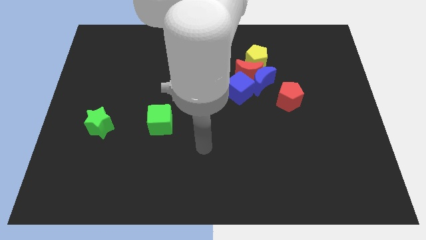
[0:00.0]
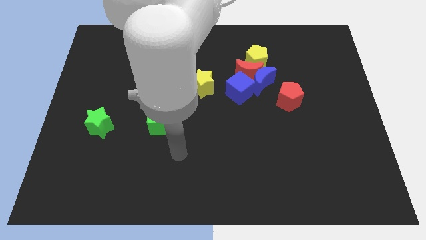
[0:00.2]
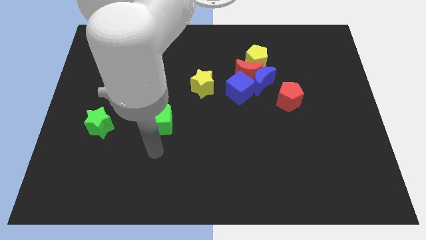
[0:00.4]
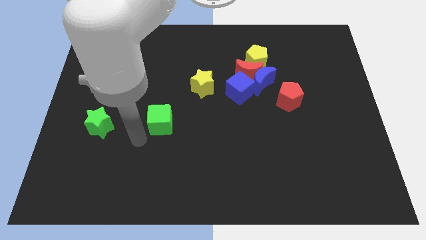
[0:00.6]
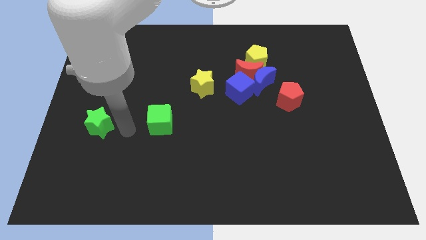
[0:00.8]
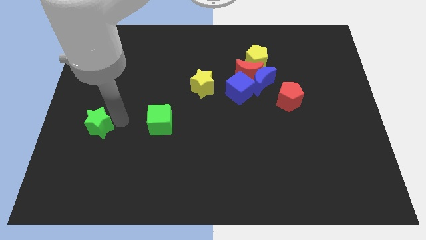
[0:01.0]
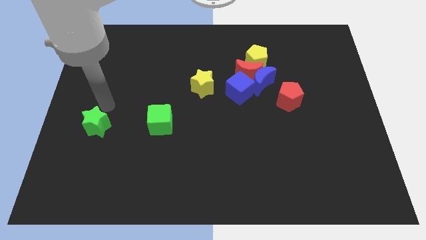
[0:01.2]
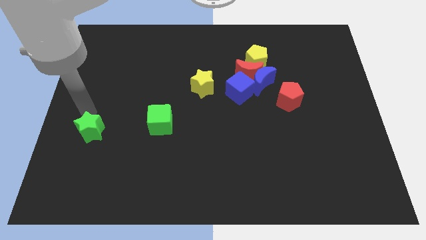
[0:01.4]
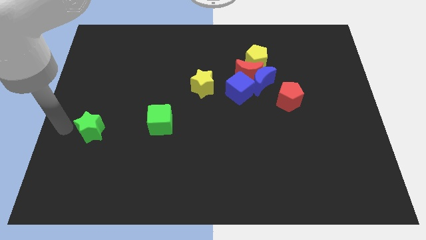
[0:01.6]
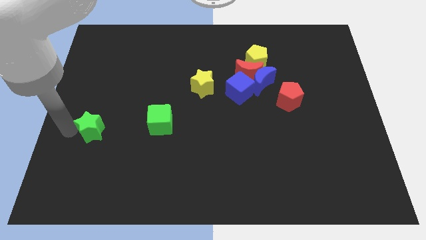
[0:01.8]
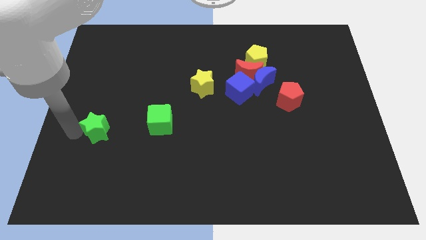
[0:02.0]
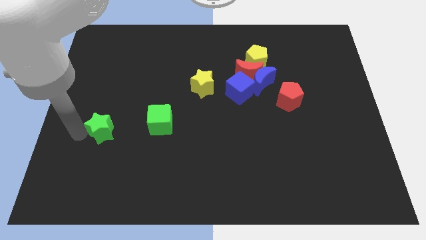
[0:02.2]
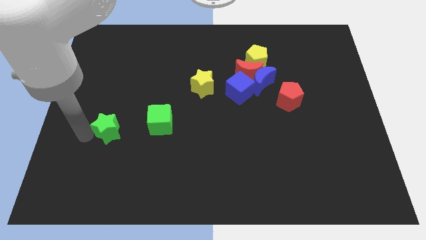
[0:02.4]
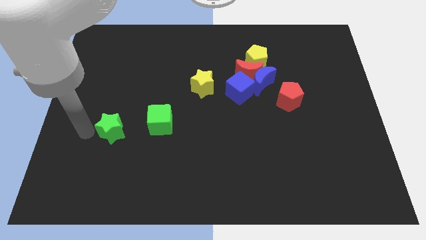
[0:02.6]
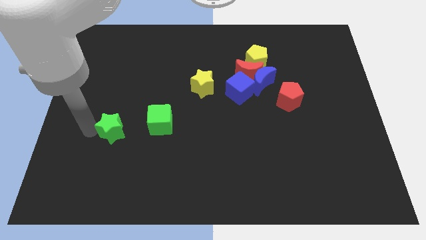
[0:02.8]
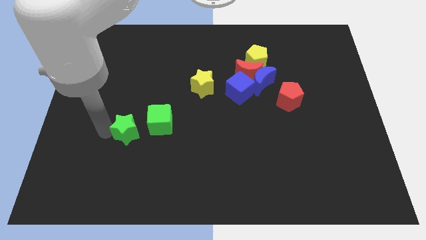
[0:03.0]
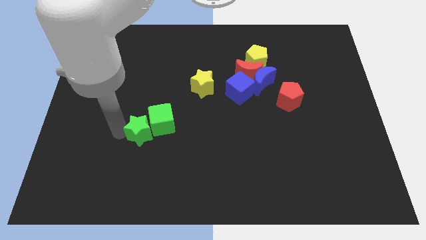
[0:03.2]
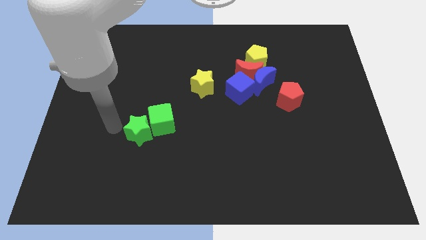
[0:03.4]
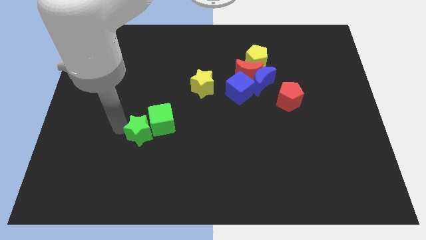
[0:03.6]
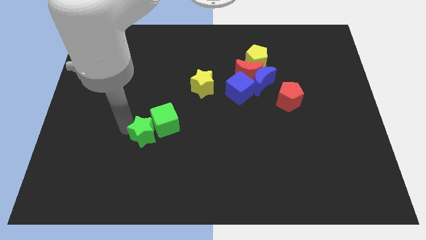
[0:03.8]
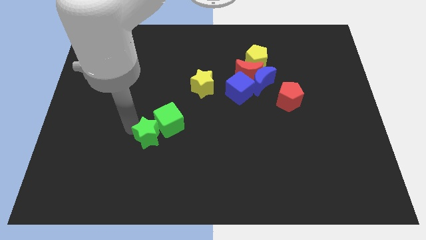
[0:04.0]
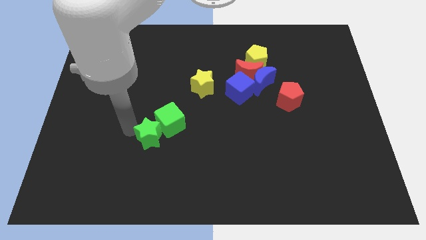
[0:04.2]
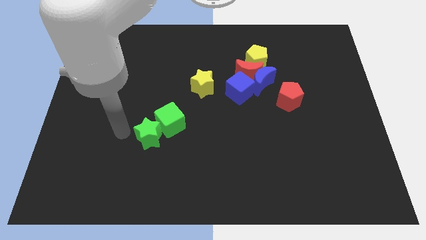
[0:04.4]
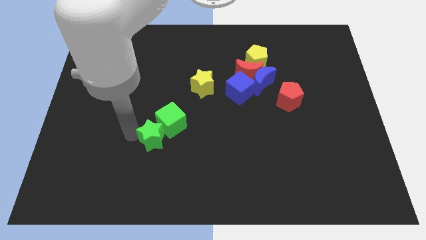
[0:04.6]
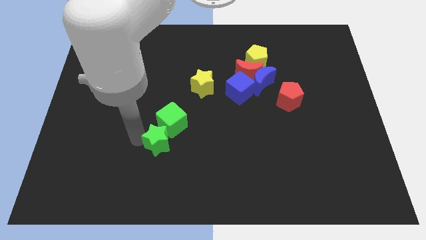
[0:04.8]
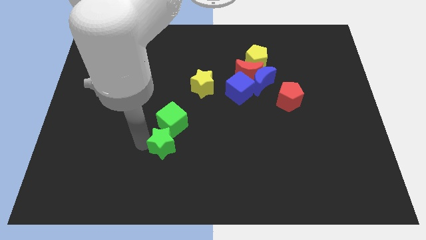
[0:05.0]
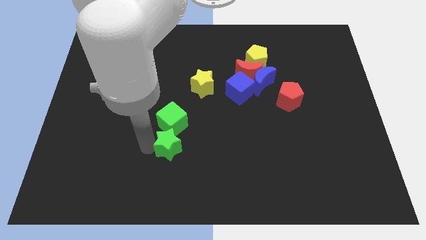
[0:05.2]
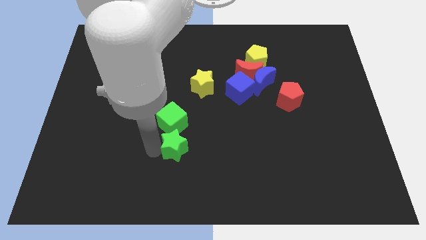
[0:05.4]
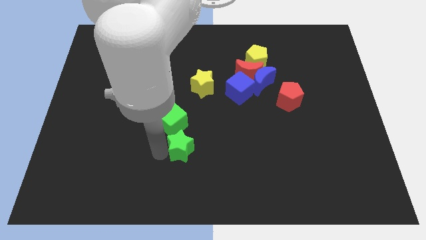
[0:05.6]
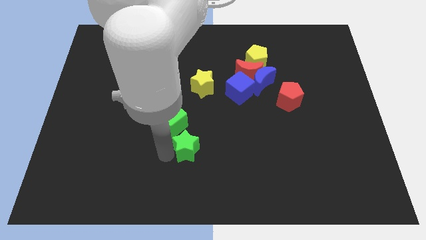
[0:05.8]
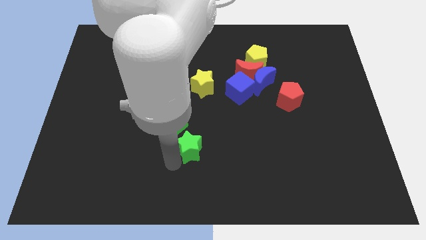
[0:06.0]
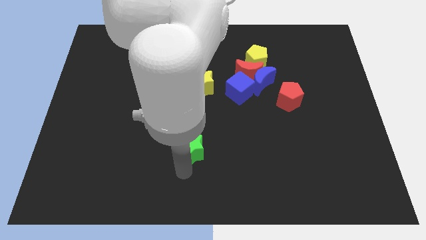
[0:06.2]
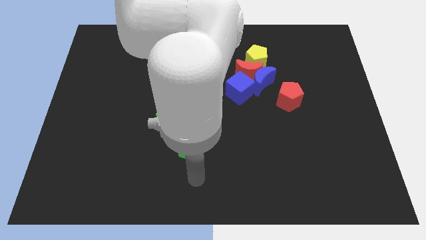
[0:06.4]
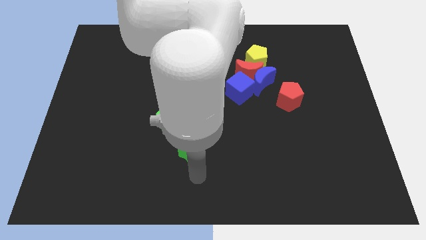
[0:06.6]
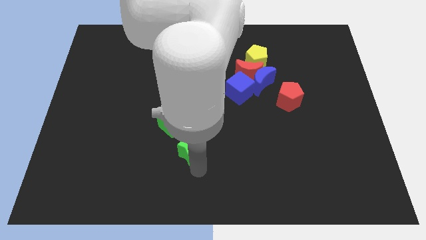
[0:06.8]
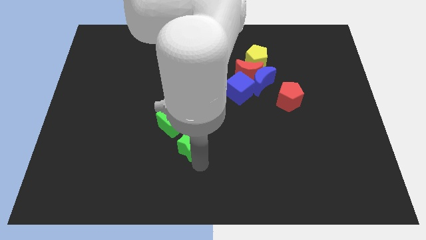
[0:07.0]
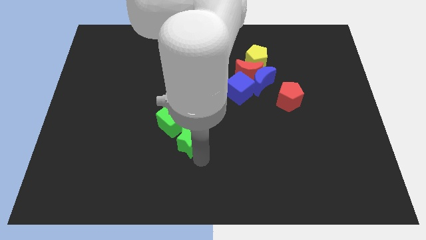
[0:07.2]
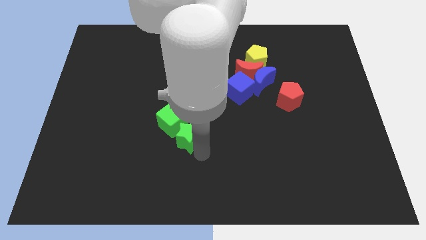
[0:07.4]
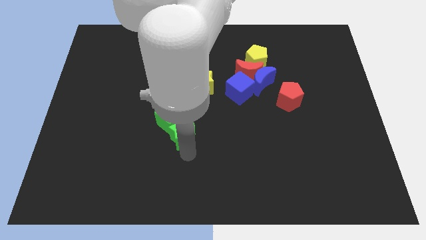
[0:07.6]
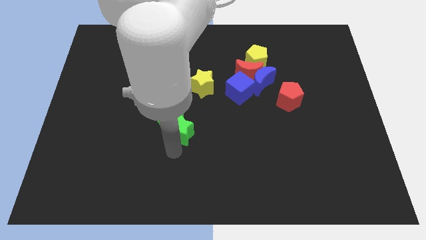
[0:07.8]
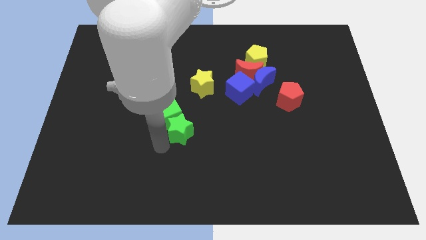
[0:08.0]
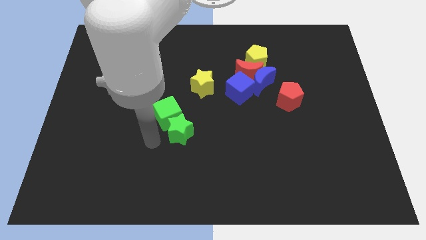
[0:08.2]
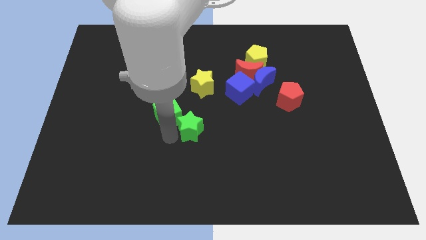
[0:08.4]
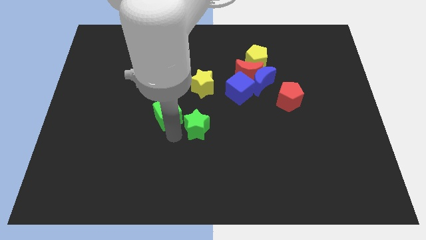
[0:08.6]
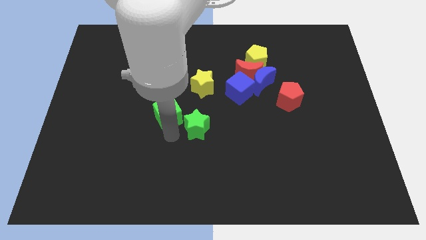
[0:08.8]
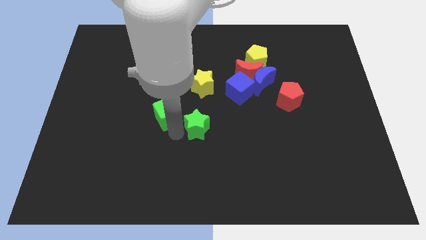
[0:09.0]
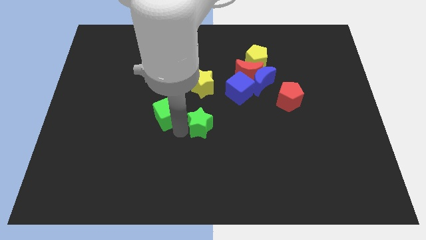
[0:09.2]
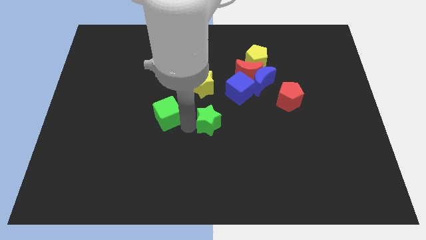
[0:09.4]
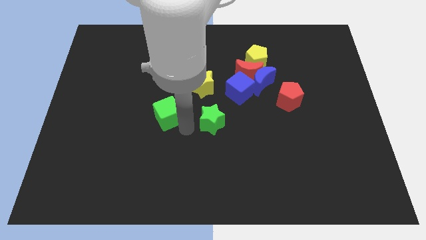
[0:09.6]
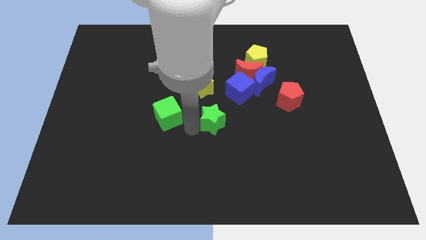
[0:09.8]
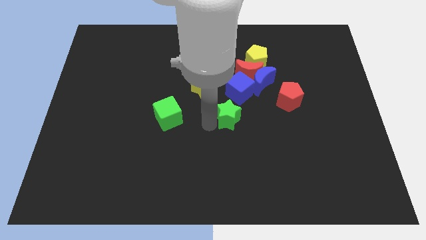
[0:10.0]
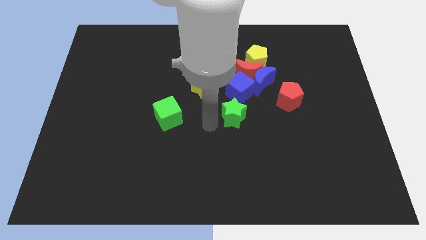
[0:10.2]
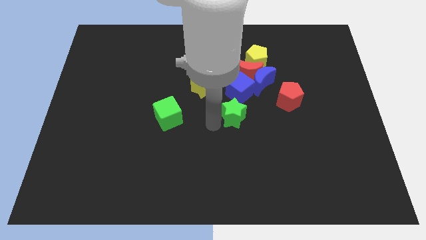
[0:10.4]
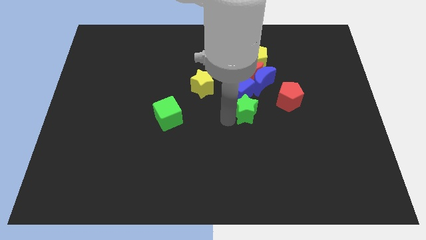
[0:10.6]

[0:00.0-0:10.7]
slide the green star to the bottom right of the blue cube
